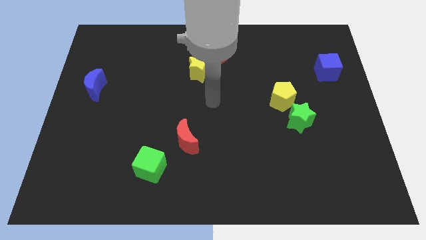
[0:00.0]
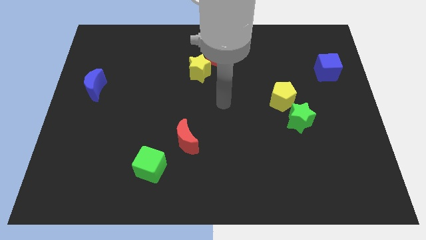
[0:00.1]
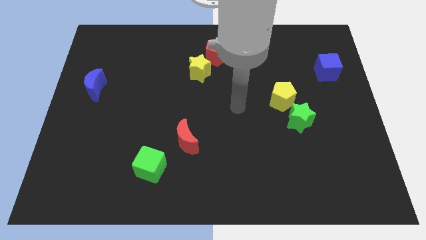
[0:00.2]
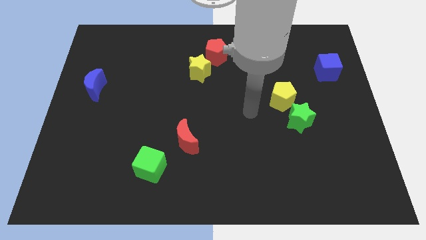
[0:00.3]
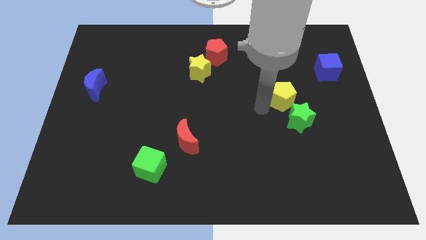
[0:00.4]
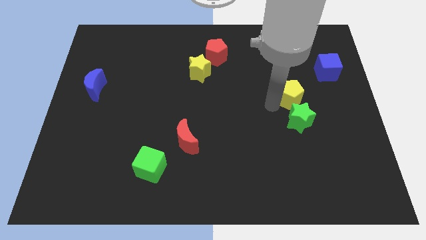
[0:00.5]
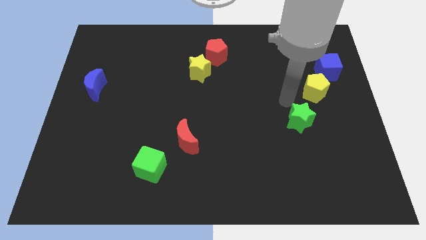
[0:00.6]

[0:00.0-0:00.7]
pull the green star apart from the yellow pentagon

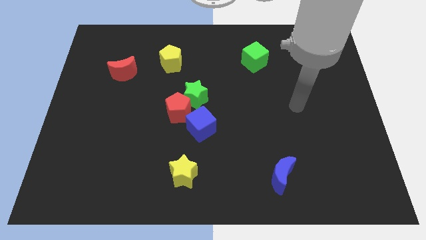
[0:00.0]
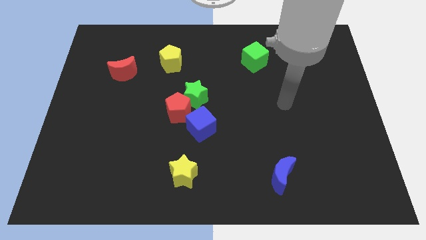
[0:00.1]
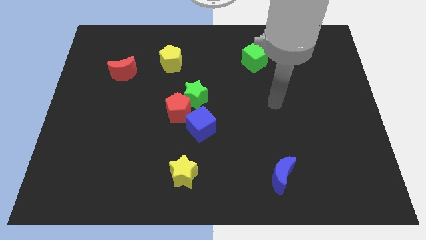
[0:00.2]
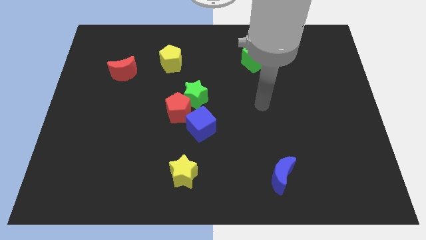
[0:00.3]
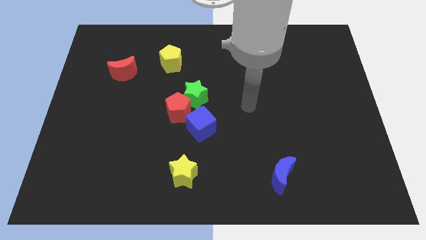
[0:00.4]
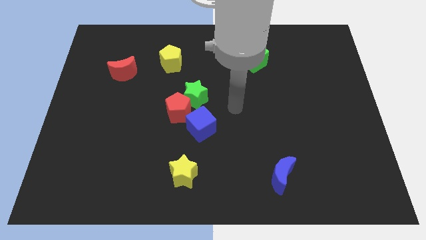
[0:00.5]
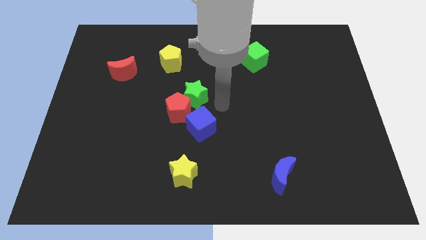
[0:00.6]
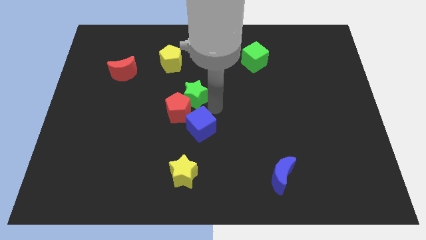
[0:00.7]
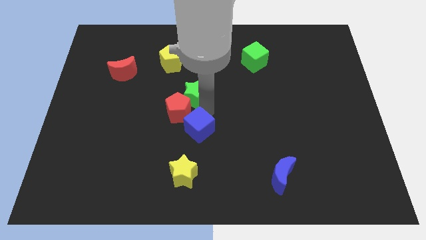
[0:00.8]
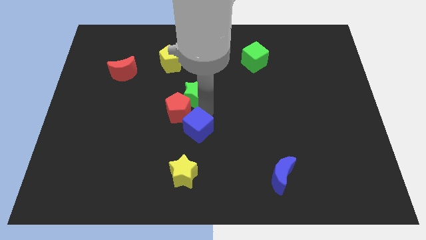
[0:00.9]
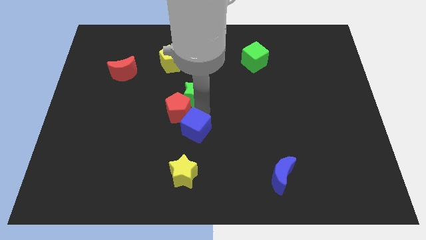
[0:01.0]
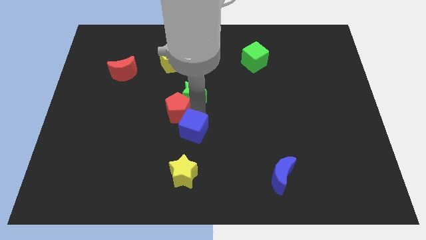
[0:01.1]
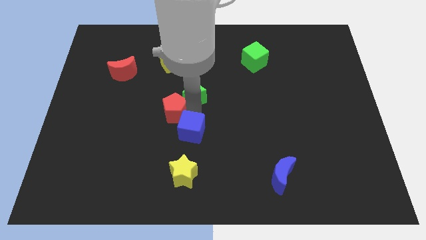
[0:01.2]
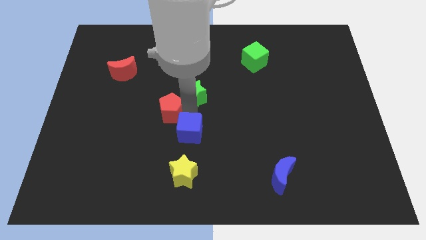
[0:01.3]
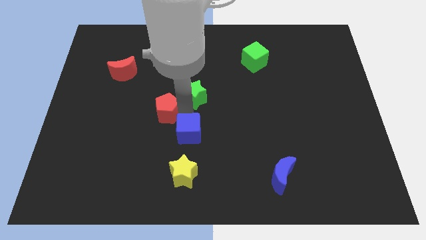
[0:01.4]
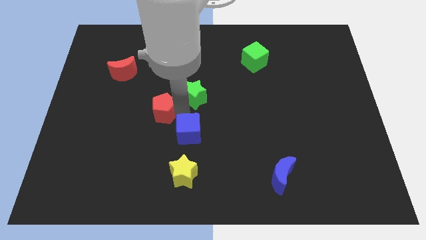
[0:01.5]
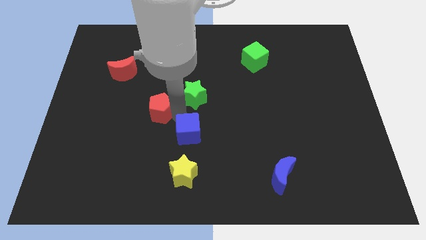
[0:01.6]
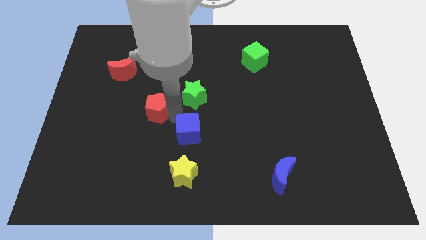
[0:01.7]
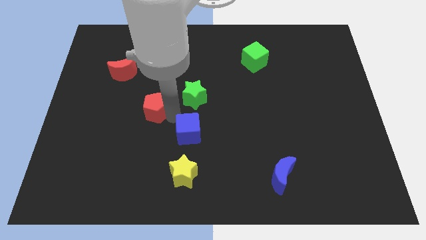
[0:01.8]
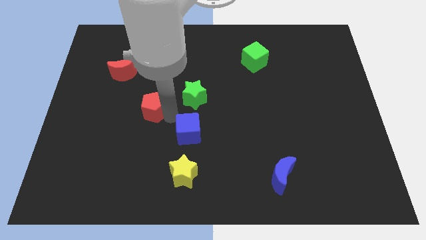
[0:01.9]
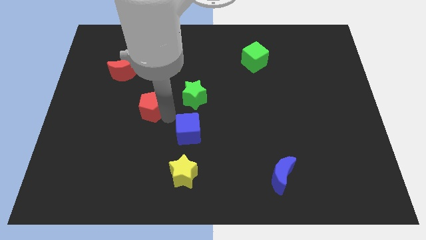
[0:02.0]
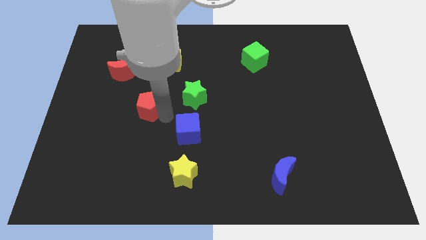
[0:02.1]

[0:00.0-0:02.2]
pull the red pentagon apart from the green star and blue cube

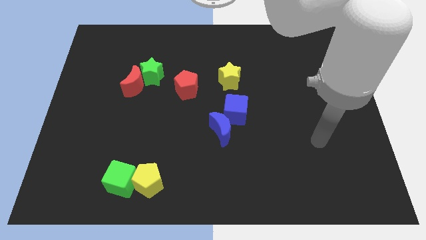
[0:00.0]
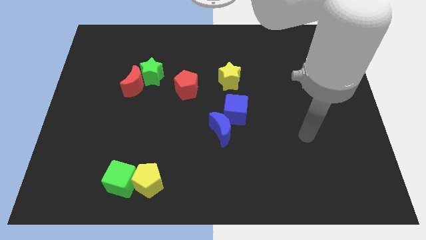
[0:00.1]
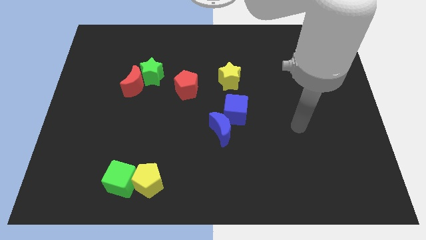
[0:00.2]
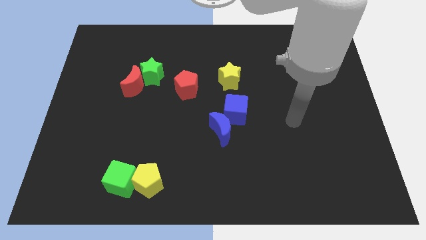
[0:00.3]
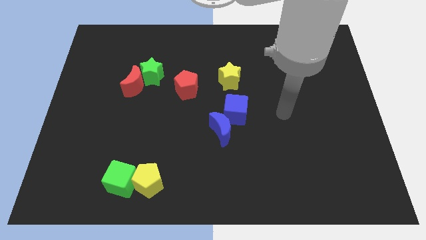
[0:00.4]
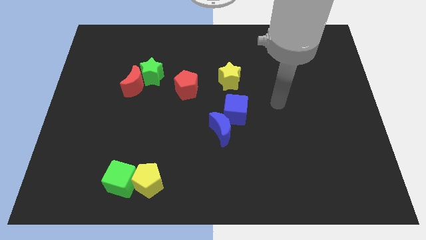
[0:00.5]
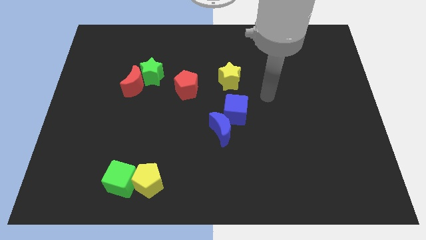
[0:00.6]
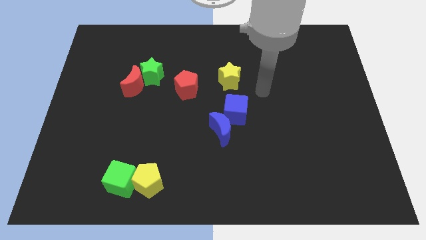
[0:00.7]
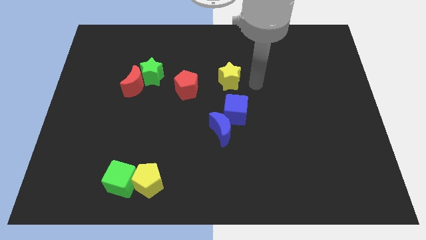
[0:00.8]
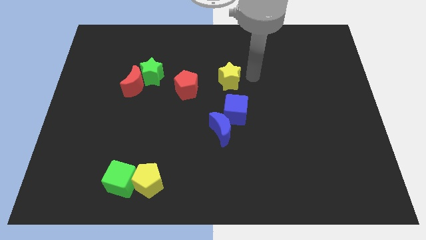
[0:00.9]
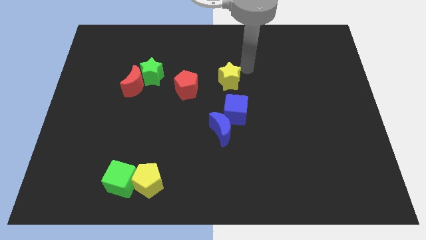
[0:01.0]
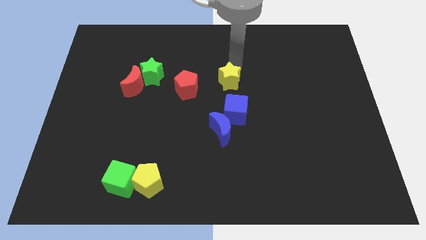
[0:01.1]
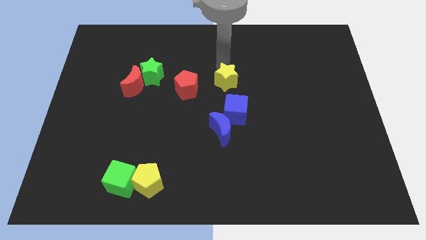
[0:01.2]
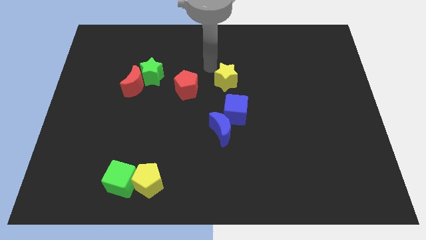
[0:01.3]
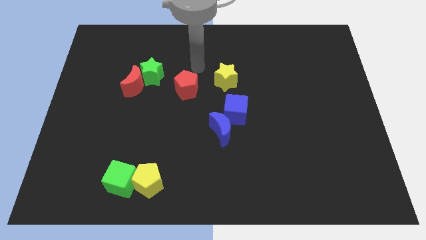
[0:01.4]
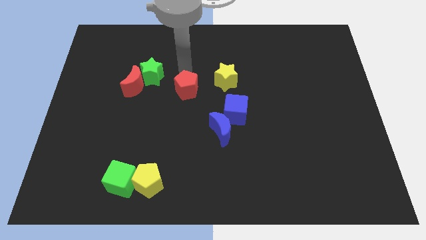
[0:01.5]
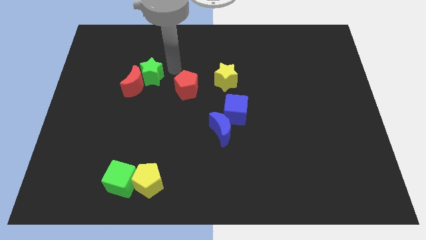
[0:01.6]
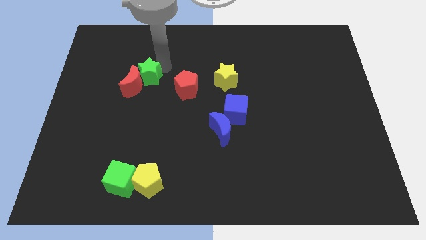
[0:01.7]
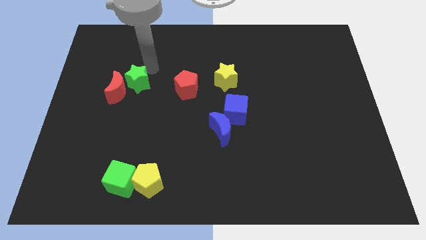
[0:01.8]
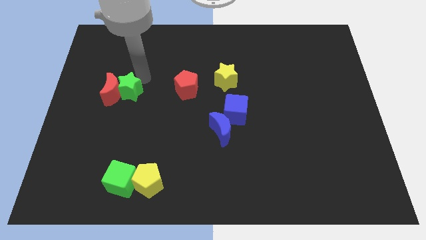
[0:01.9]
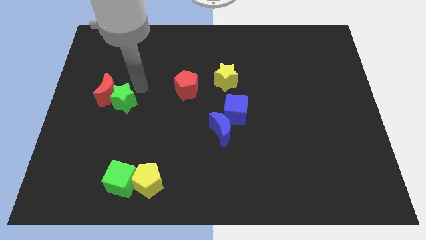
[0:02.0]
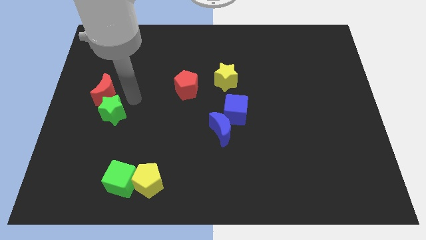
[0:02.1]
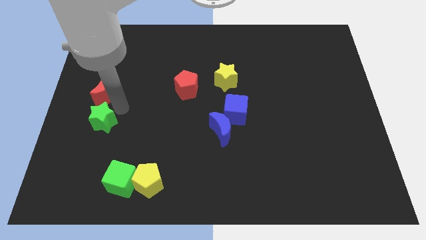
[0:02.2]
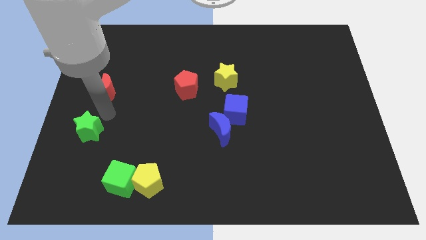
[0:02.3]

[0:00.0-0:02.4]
move the red moon away from the green star

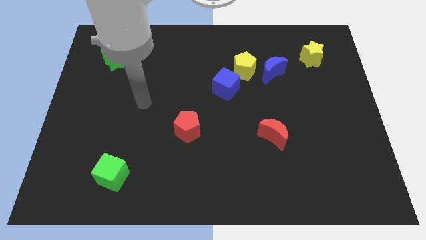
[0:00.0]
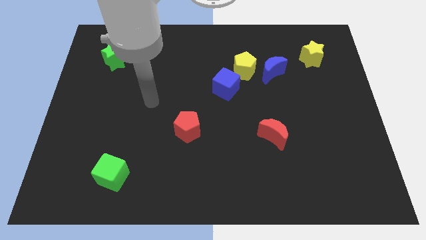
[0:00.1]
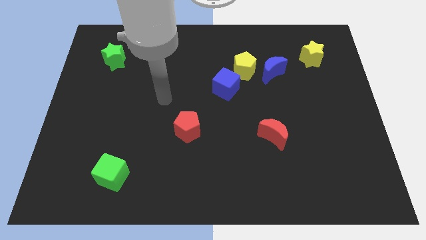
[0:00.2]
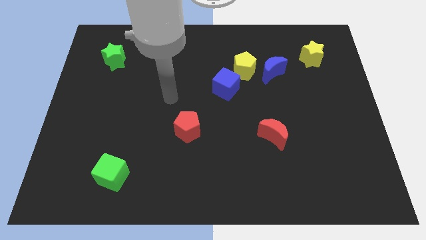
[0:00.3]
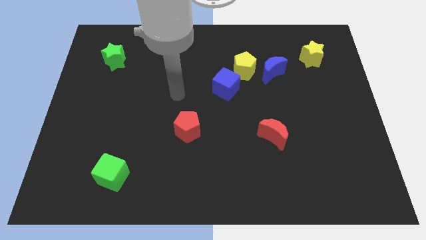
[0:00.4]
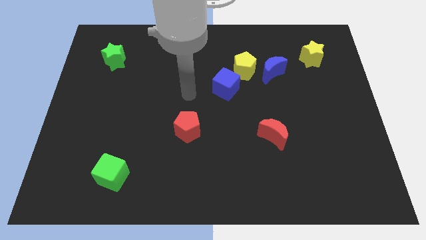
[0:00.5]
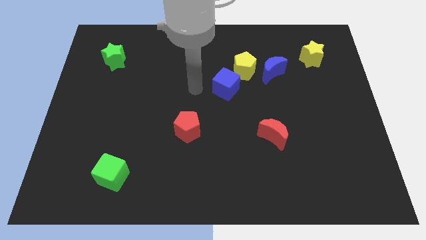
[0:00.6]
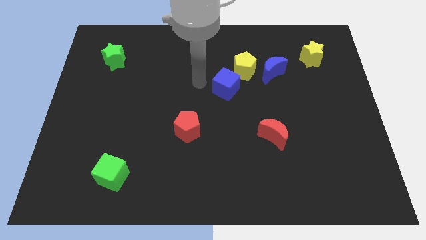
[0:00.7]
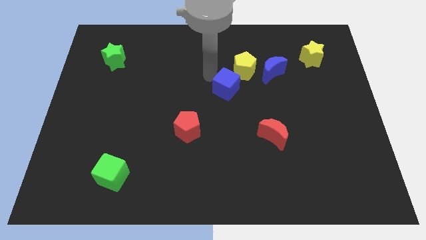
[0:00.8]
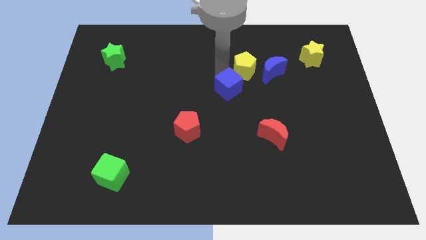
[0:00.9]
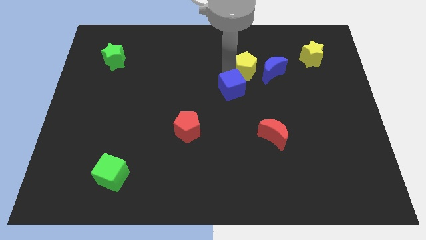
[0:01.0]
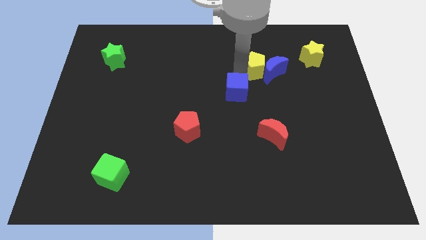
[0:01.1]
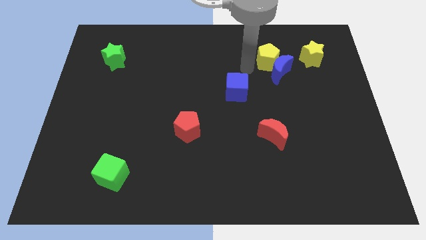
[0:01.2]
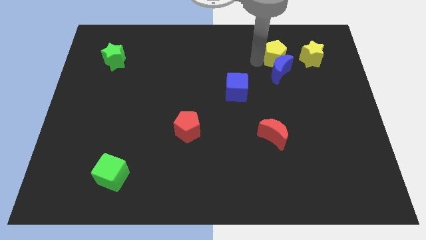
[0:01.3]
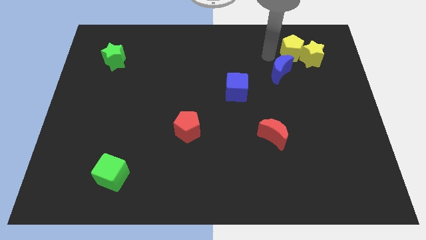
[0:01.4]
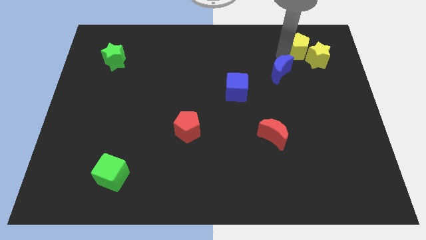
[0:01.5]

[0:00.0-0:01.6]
separate the blue moon from the yellow pentagon

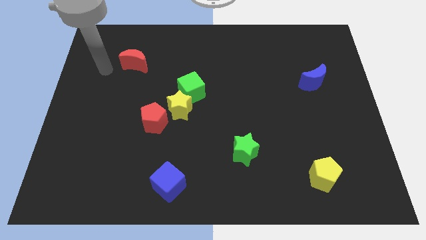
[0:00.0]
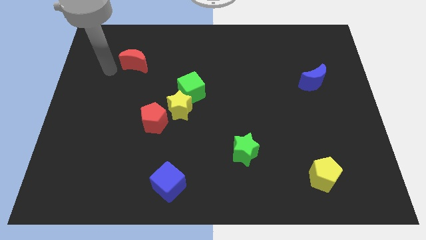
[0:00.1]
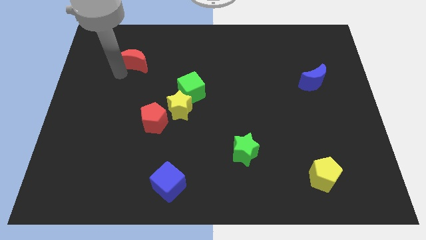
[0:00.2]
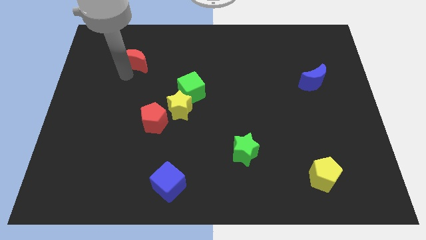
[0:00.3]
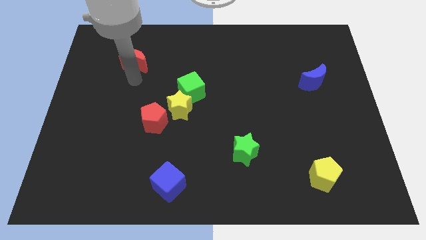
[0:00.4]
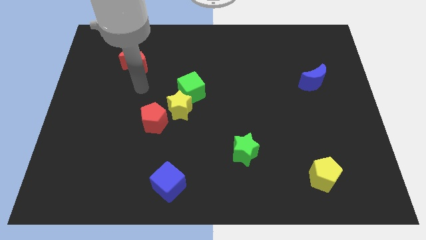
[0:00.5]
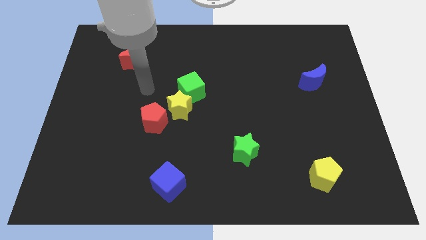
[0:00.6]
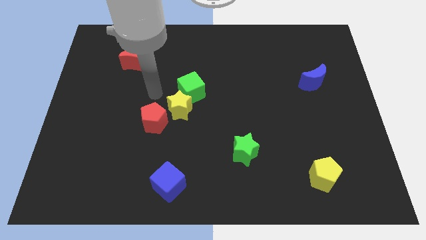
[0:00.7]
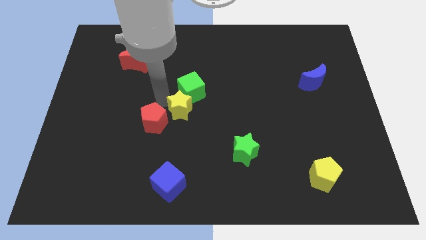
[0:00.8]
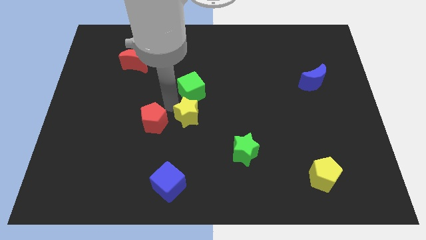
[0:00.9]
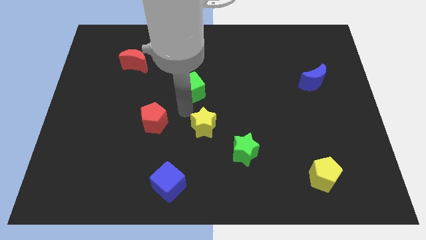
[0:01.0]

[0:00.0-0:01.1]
pull the green cube apart from the yellow star

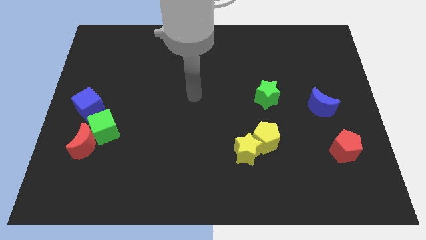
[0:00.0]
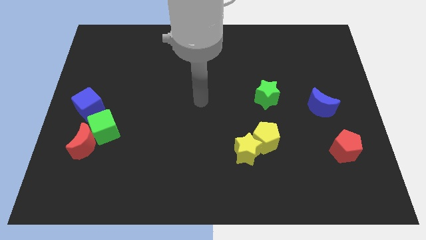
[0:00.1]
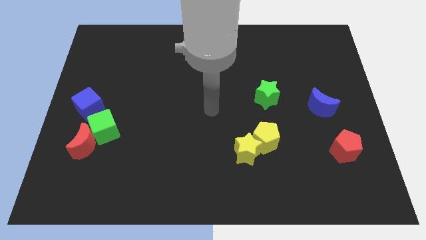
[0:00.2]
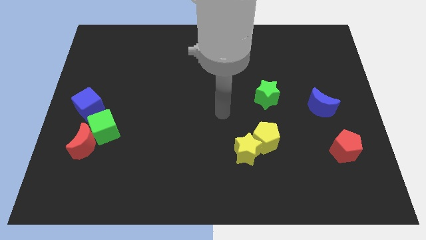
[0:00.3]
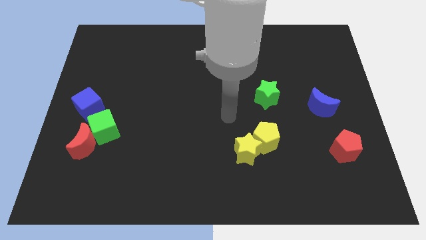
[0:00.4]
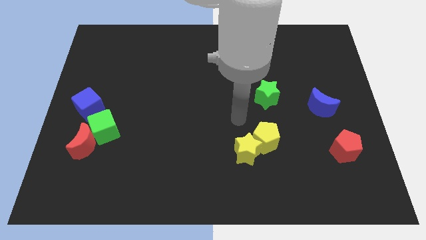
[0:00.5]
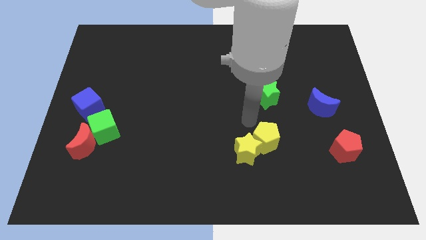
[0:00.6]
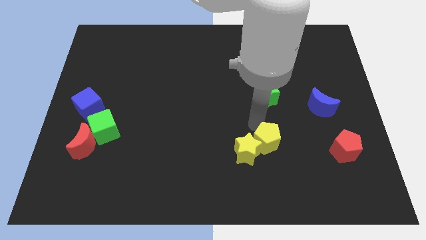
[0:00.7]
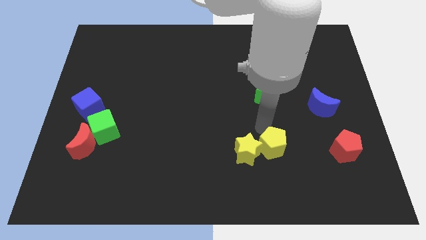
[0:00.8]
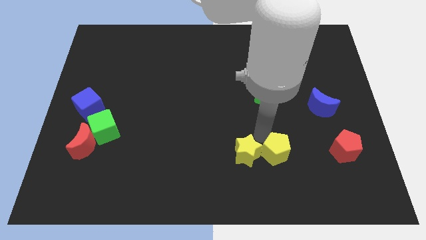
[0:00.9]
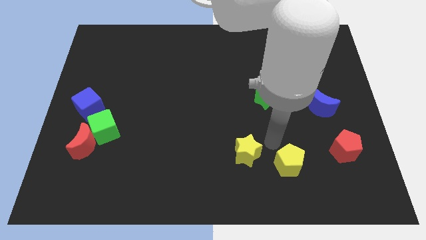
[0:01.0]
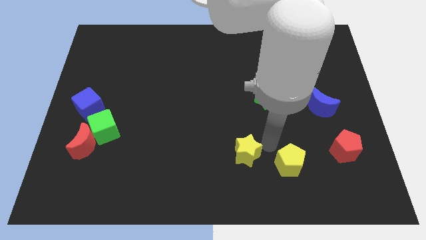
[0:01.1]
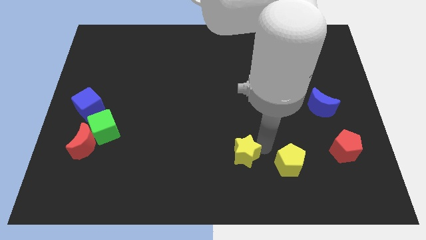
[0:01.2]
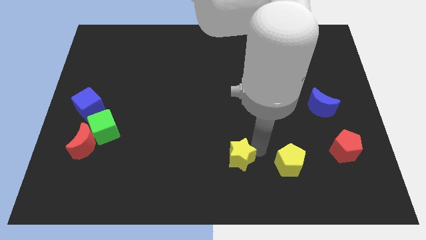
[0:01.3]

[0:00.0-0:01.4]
move the yellow star away from the yellow pentagon
